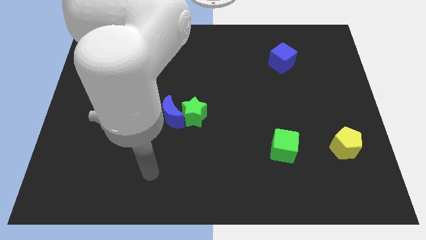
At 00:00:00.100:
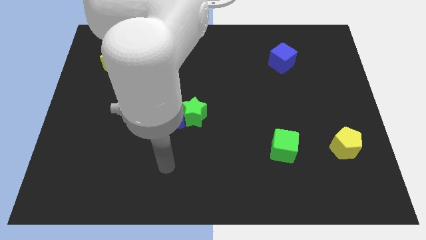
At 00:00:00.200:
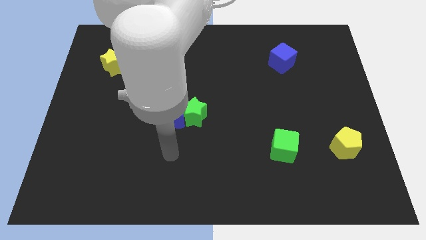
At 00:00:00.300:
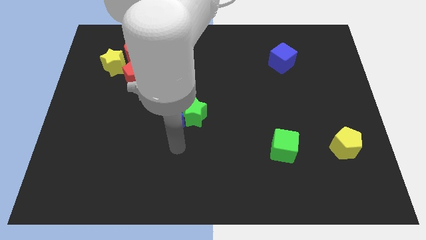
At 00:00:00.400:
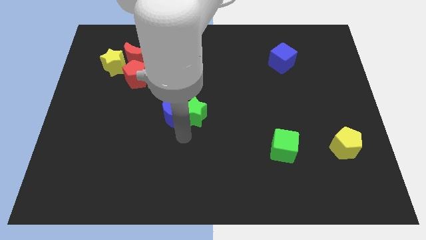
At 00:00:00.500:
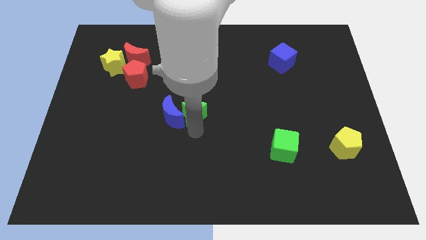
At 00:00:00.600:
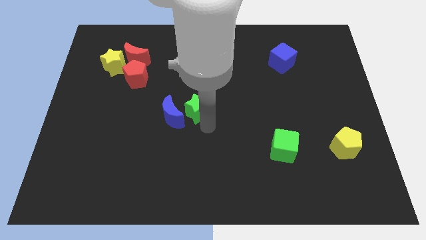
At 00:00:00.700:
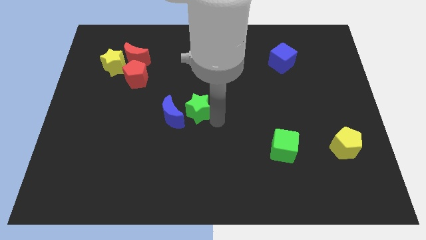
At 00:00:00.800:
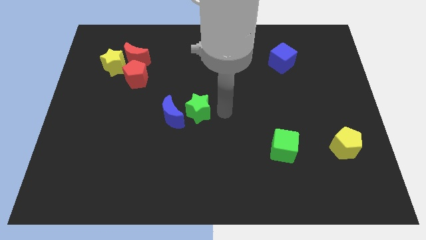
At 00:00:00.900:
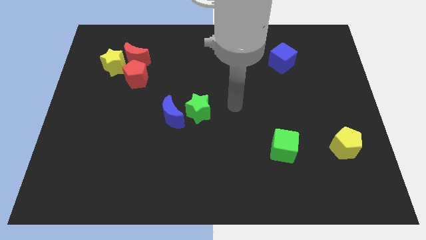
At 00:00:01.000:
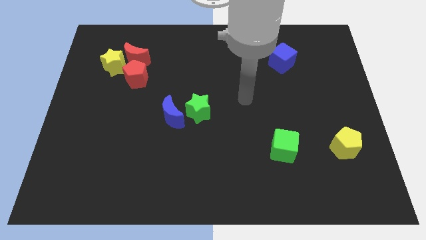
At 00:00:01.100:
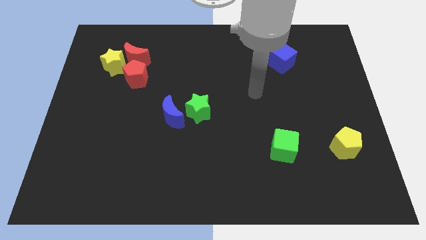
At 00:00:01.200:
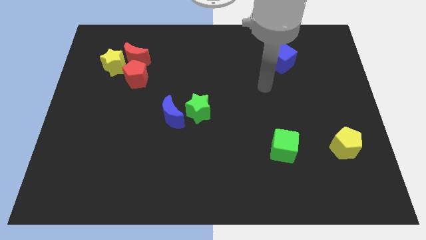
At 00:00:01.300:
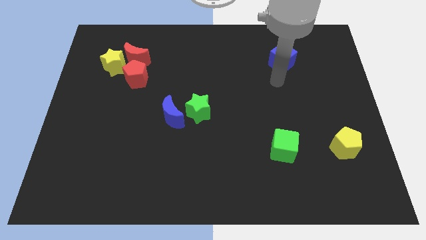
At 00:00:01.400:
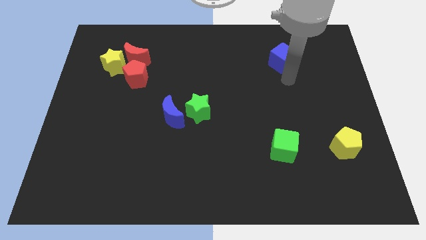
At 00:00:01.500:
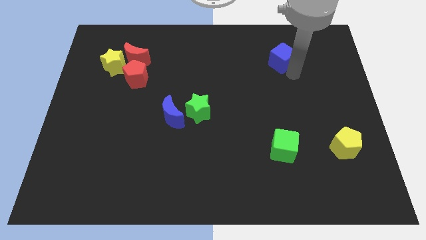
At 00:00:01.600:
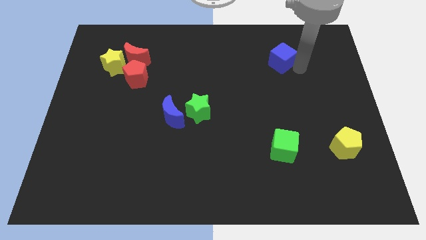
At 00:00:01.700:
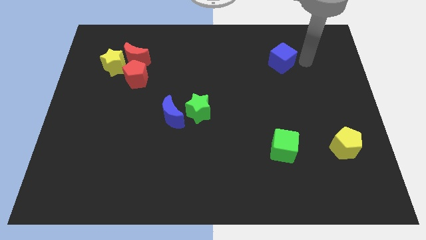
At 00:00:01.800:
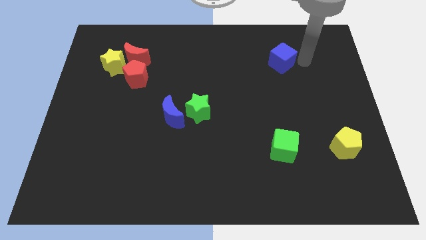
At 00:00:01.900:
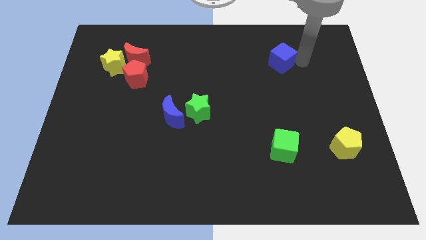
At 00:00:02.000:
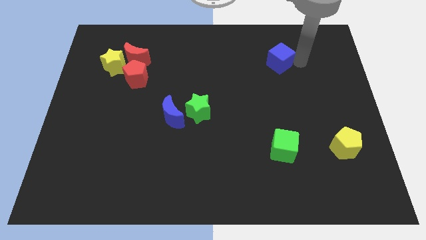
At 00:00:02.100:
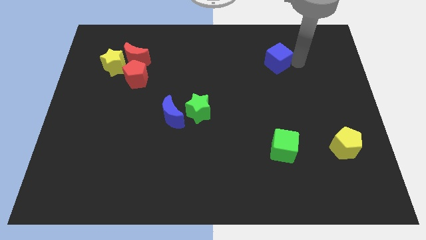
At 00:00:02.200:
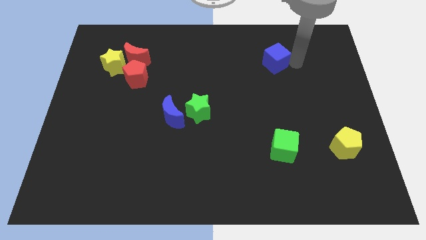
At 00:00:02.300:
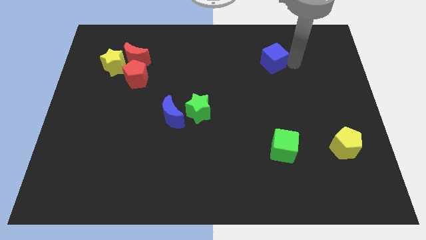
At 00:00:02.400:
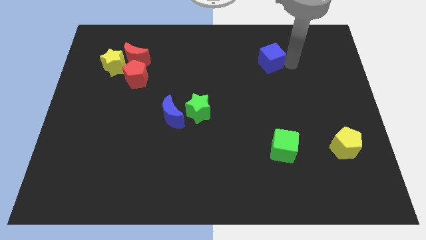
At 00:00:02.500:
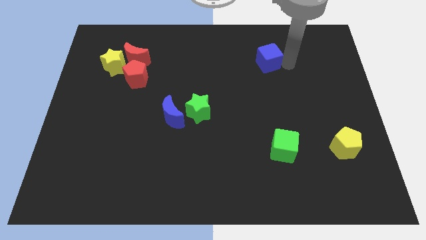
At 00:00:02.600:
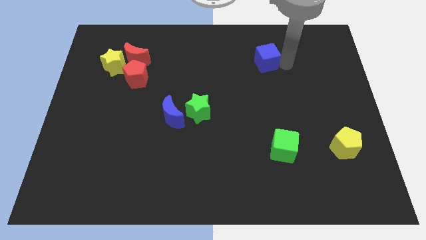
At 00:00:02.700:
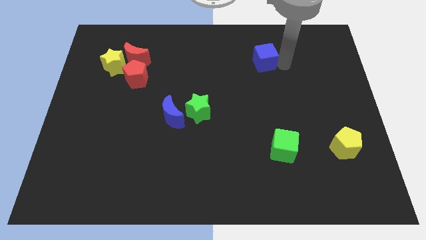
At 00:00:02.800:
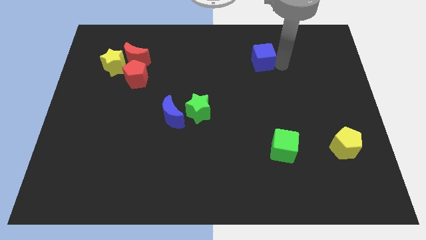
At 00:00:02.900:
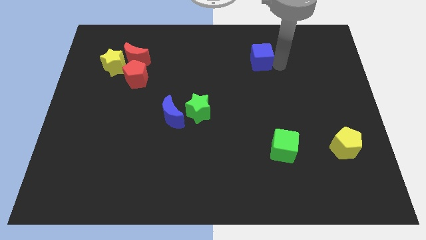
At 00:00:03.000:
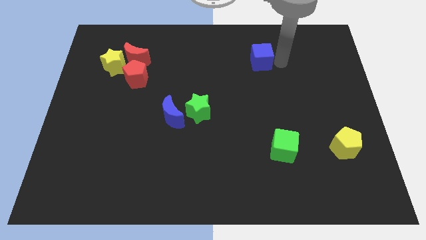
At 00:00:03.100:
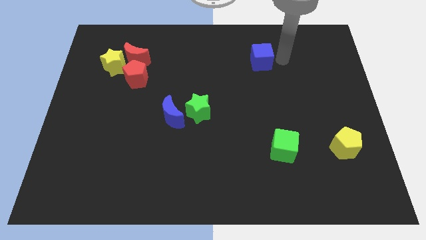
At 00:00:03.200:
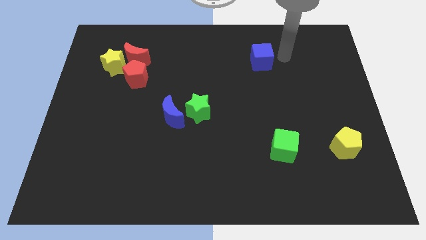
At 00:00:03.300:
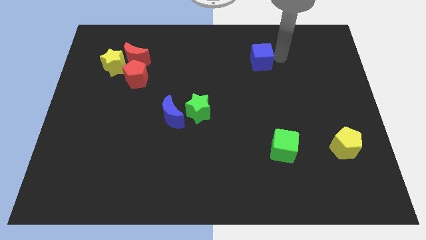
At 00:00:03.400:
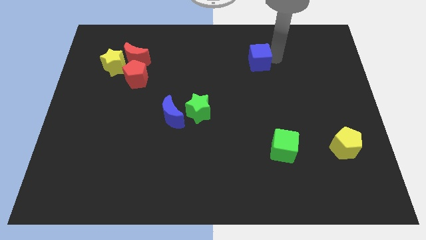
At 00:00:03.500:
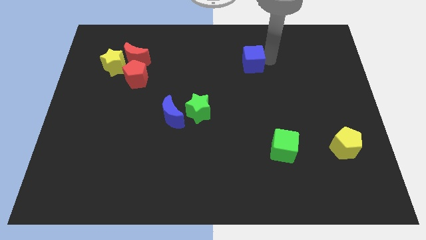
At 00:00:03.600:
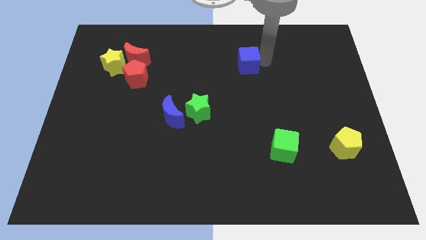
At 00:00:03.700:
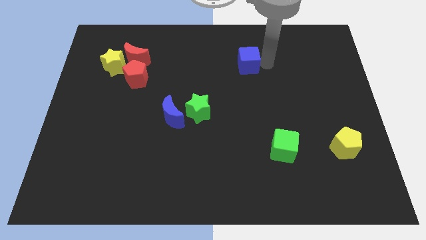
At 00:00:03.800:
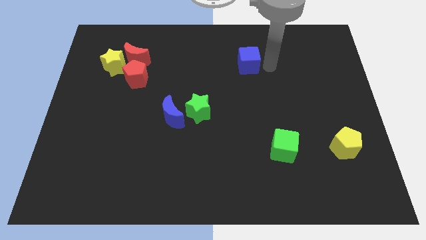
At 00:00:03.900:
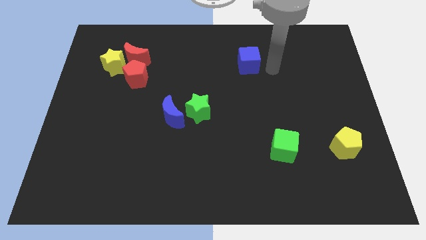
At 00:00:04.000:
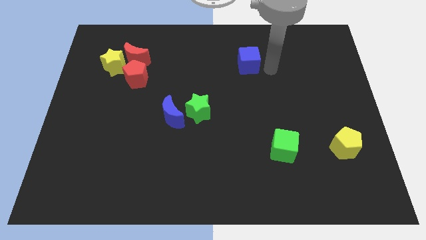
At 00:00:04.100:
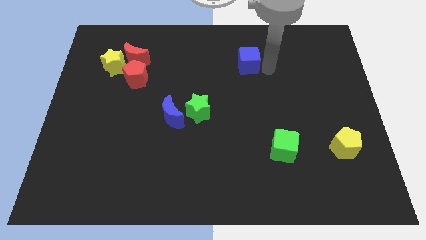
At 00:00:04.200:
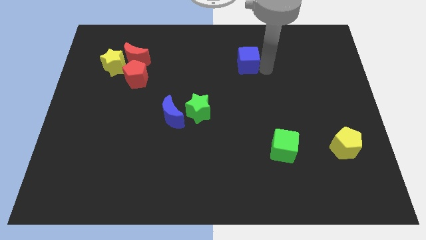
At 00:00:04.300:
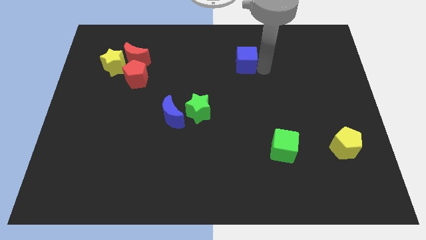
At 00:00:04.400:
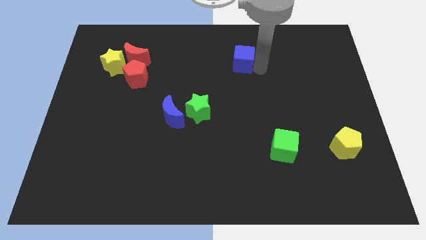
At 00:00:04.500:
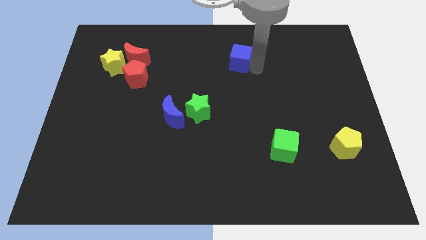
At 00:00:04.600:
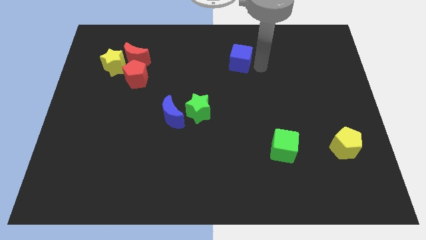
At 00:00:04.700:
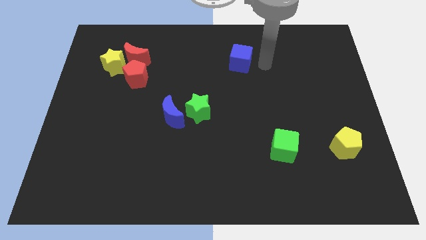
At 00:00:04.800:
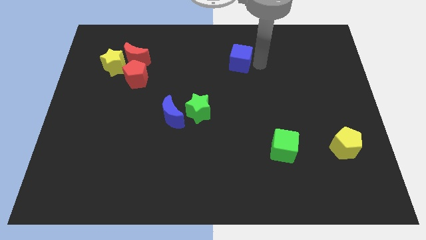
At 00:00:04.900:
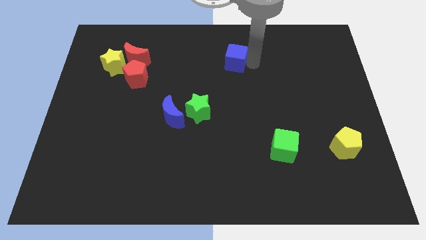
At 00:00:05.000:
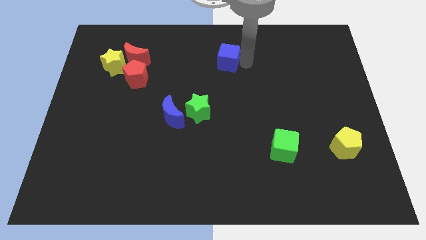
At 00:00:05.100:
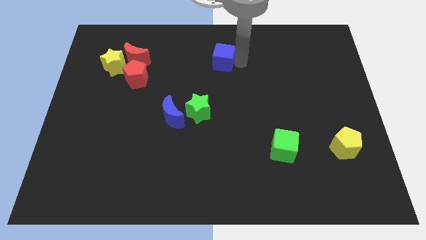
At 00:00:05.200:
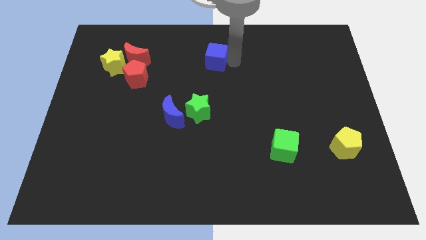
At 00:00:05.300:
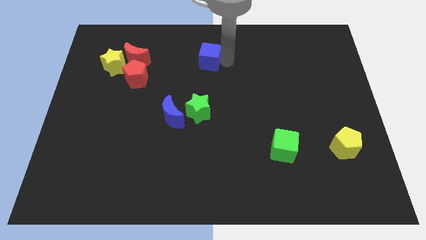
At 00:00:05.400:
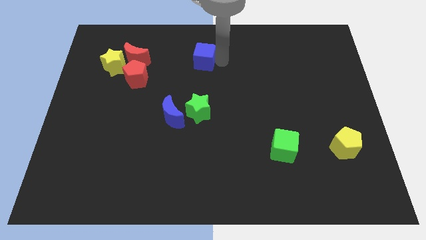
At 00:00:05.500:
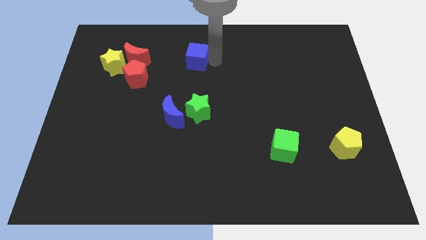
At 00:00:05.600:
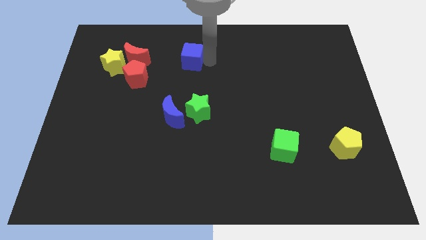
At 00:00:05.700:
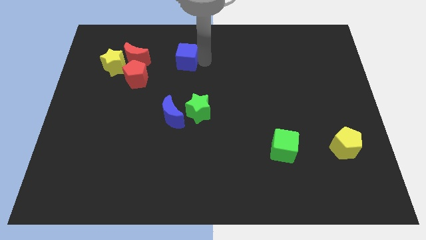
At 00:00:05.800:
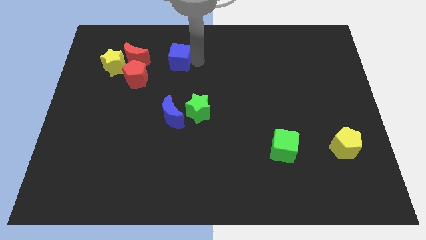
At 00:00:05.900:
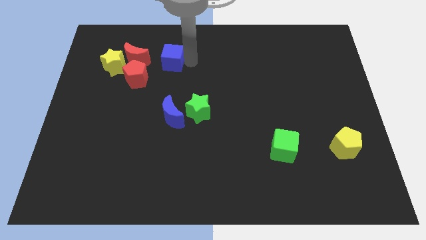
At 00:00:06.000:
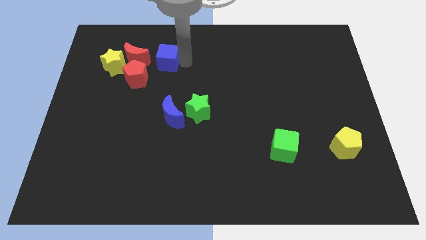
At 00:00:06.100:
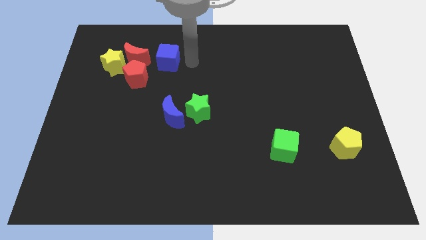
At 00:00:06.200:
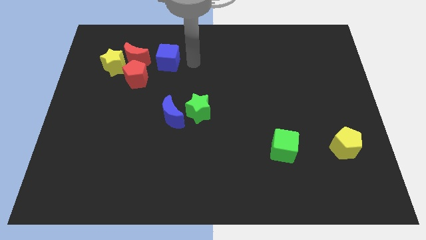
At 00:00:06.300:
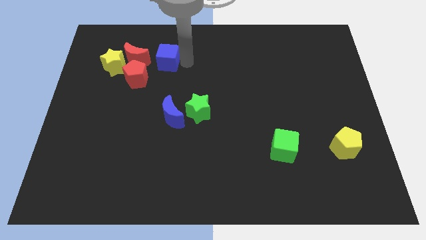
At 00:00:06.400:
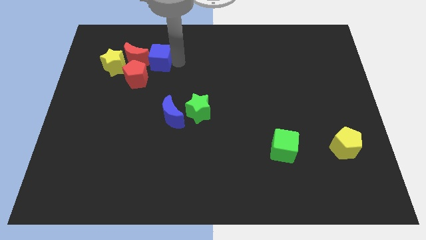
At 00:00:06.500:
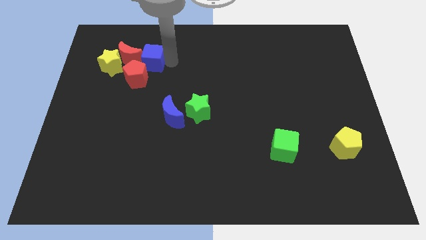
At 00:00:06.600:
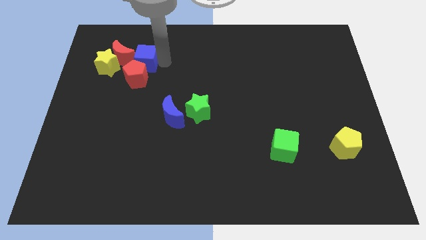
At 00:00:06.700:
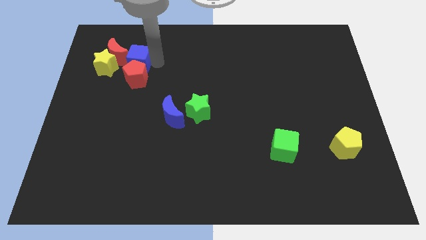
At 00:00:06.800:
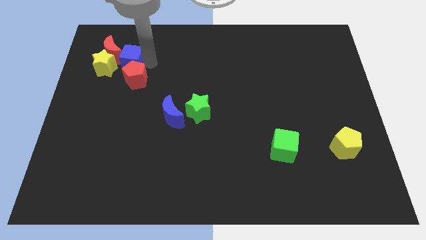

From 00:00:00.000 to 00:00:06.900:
slide the blue cube towards the red moon
